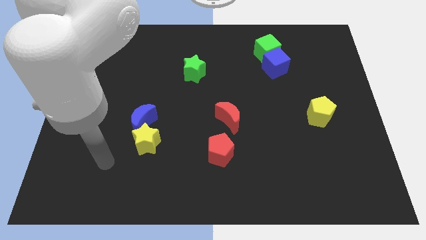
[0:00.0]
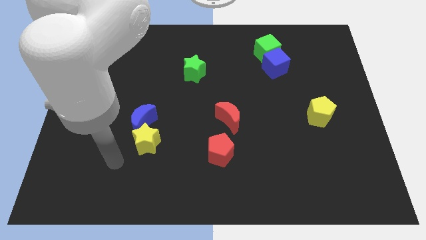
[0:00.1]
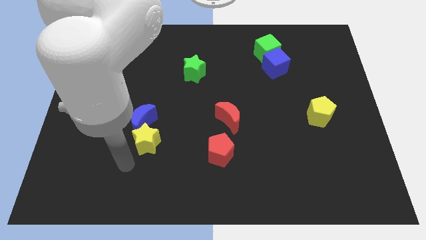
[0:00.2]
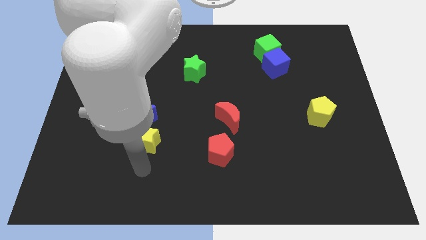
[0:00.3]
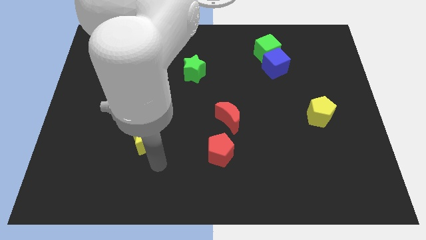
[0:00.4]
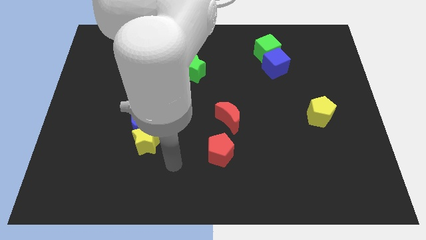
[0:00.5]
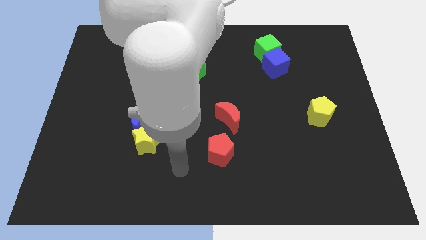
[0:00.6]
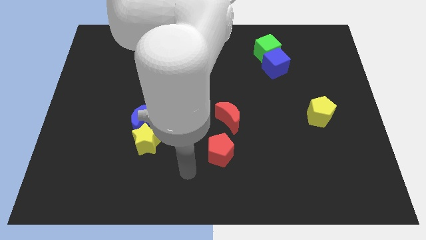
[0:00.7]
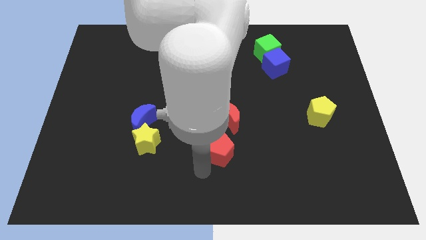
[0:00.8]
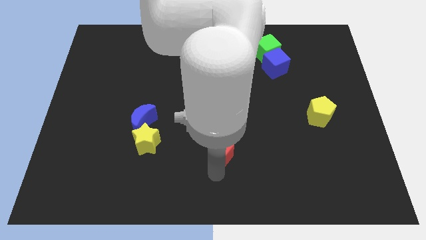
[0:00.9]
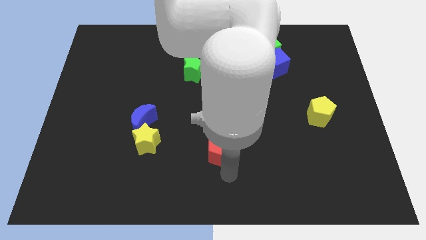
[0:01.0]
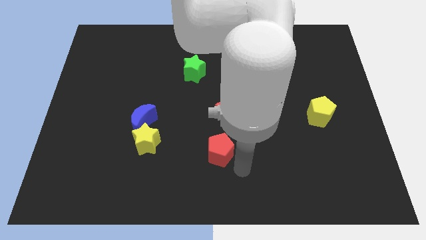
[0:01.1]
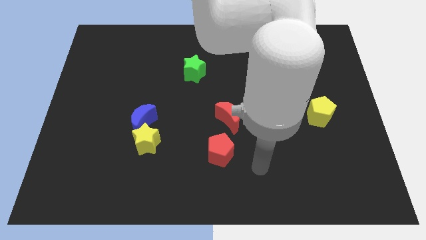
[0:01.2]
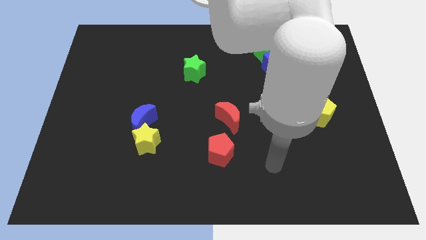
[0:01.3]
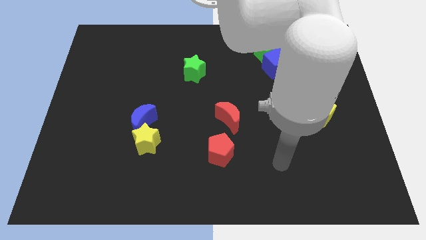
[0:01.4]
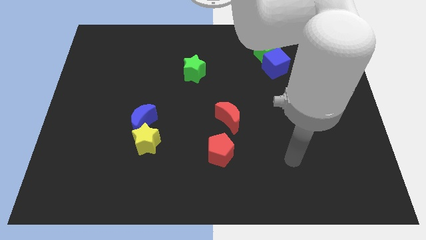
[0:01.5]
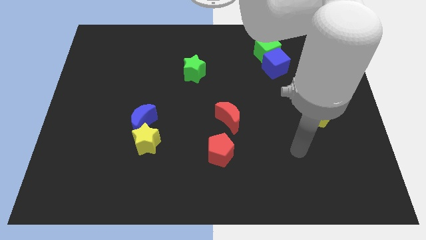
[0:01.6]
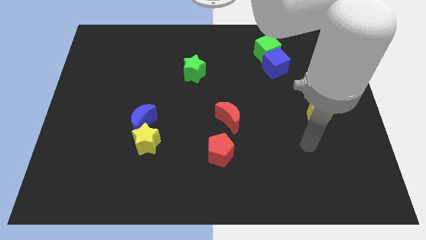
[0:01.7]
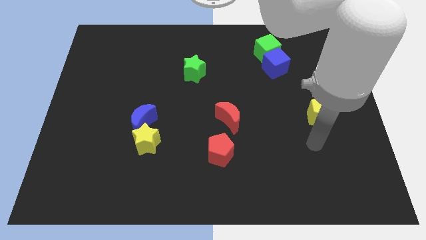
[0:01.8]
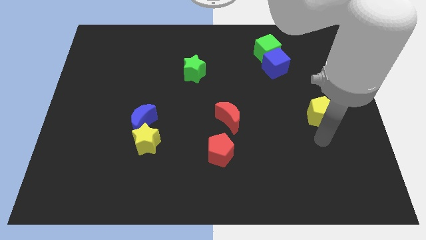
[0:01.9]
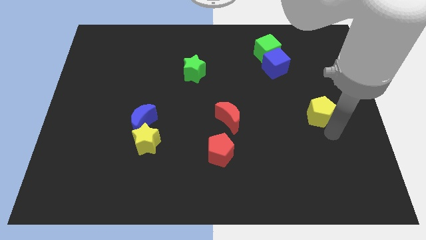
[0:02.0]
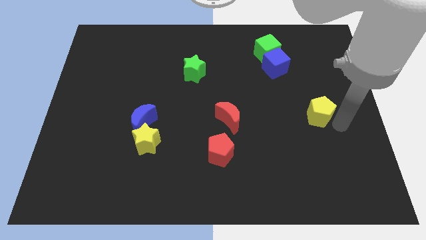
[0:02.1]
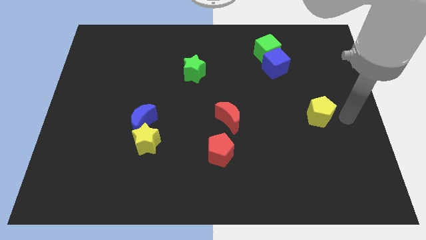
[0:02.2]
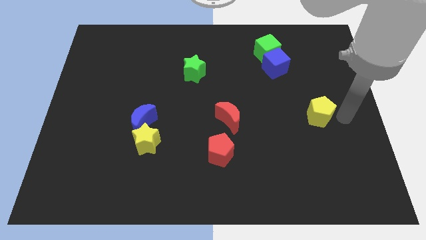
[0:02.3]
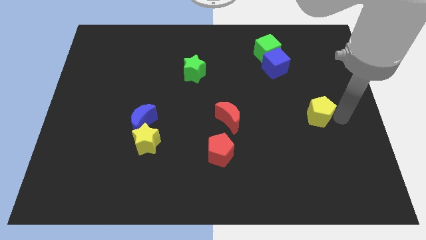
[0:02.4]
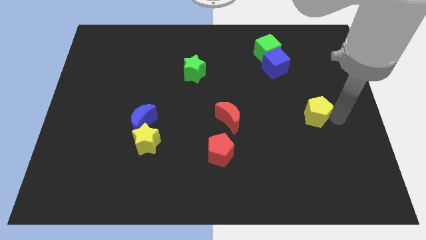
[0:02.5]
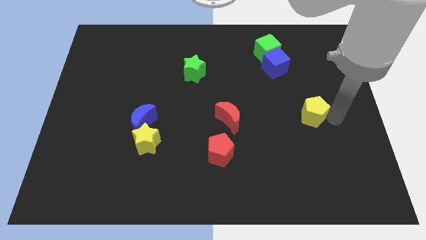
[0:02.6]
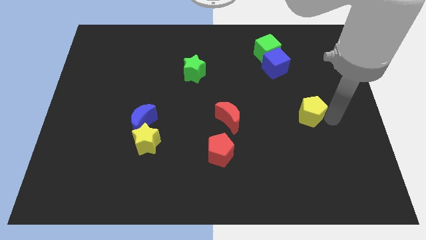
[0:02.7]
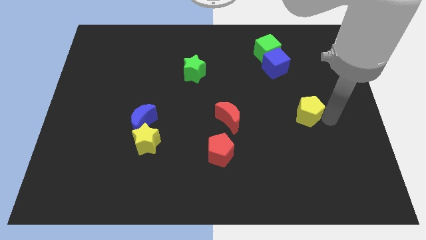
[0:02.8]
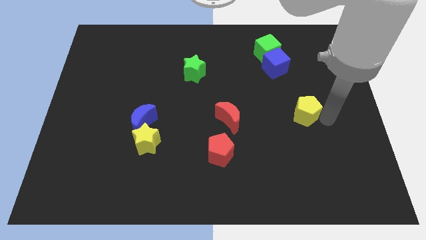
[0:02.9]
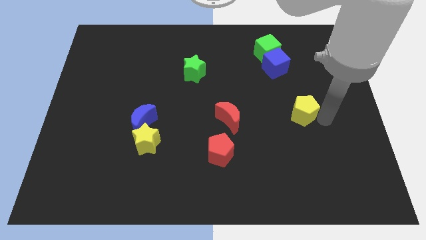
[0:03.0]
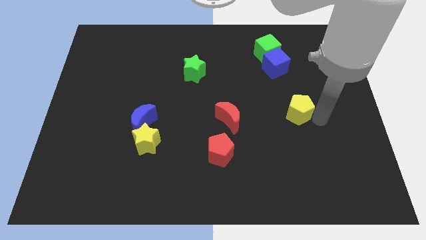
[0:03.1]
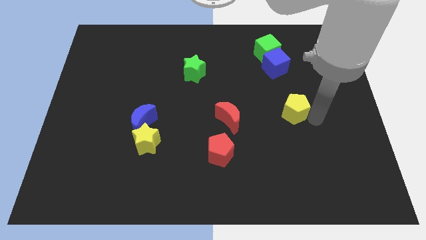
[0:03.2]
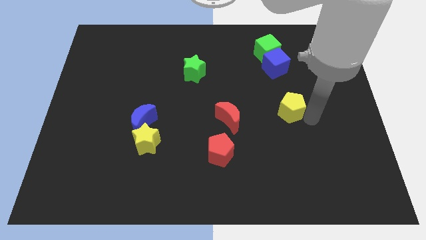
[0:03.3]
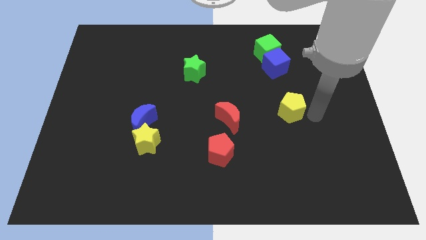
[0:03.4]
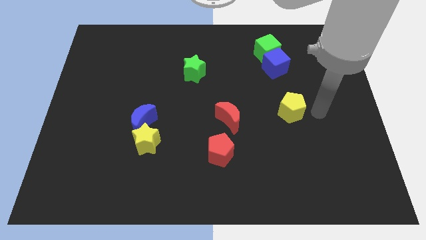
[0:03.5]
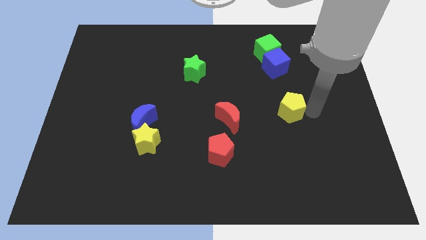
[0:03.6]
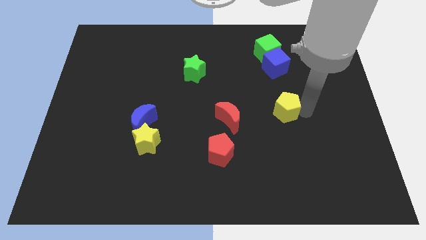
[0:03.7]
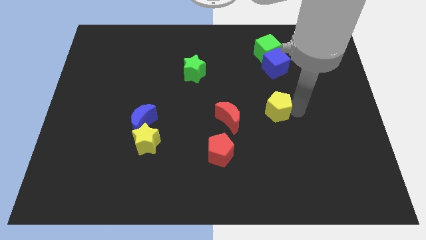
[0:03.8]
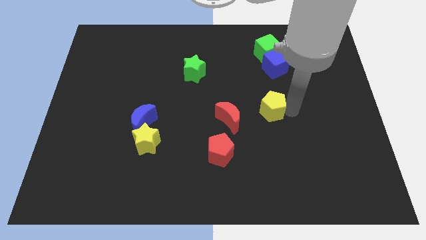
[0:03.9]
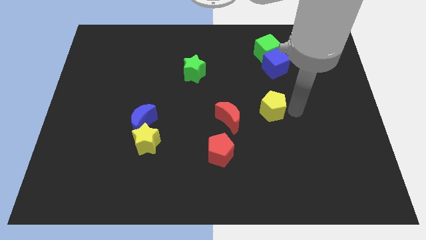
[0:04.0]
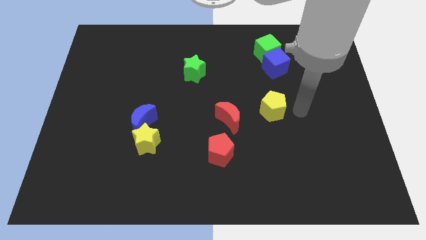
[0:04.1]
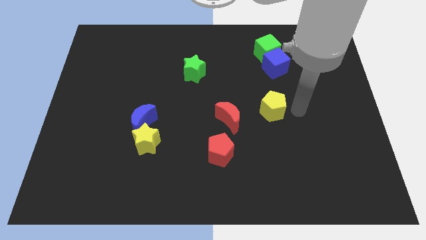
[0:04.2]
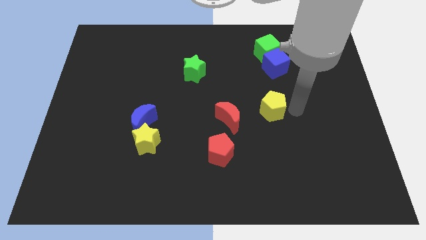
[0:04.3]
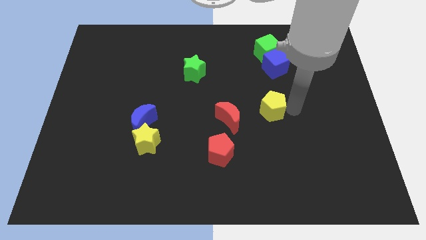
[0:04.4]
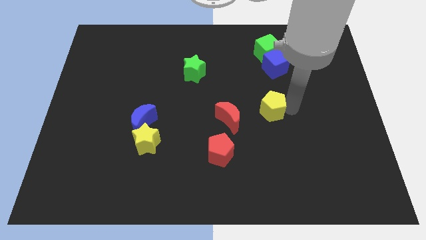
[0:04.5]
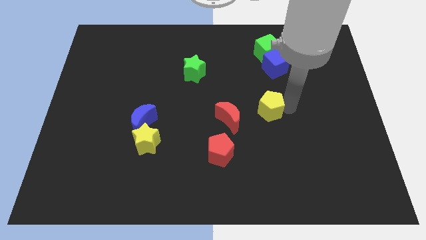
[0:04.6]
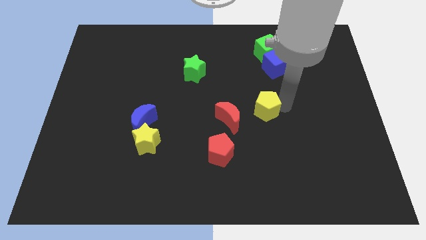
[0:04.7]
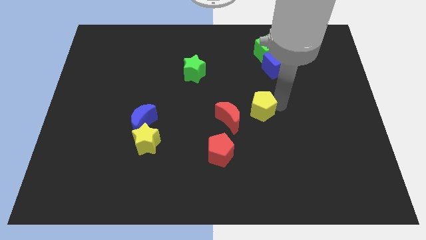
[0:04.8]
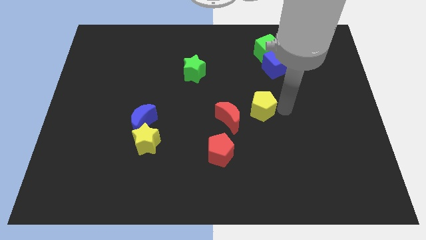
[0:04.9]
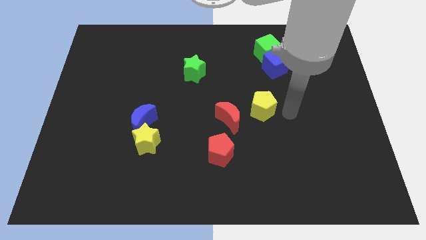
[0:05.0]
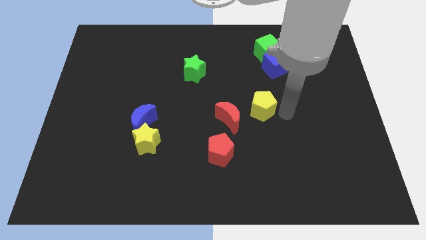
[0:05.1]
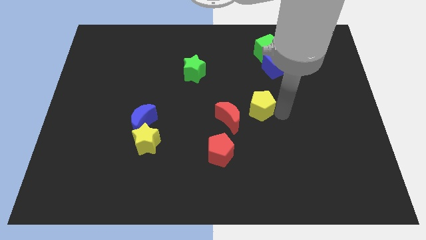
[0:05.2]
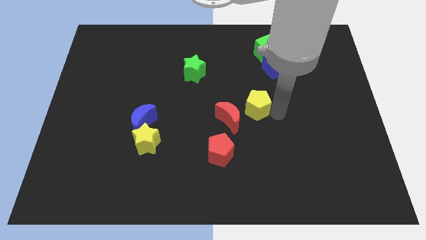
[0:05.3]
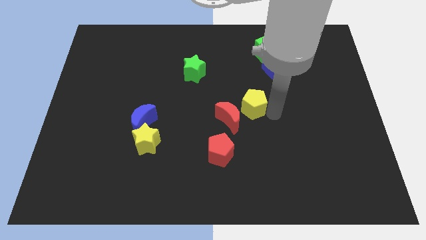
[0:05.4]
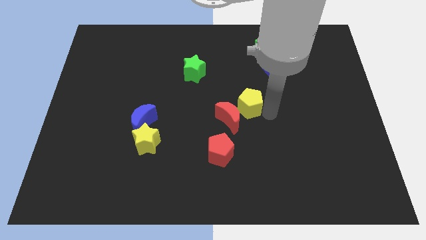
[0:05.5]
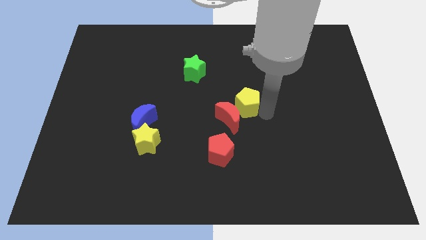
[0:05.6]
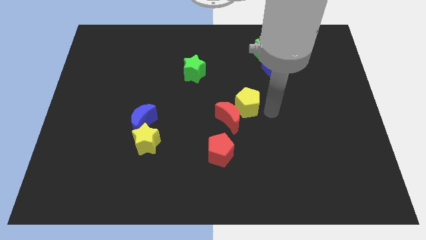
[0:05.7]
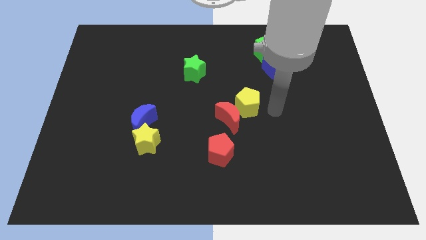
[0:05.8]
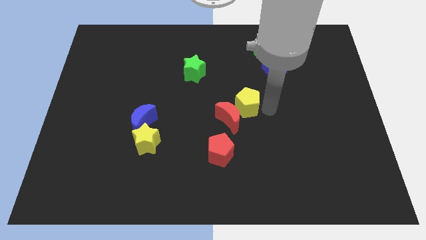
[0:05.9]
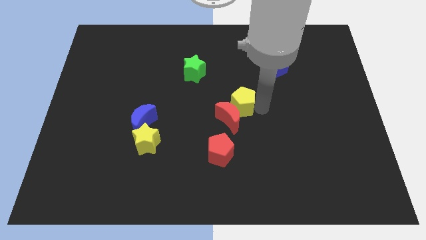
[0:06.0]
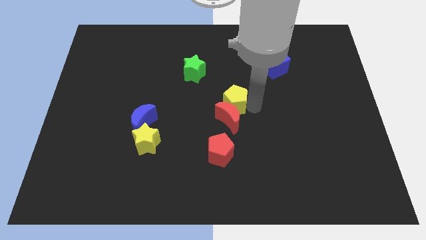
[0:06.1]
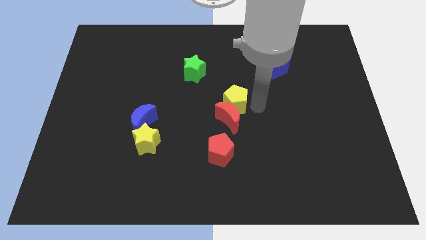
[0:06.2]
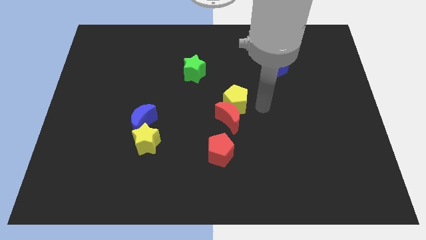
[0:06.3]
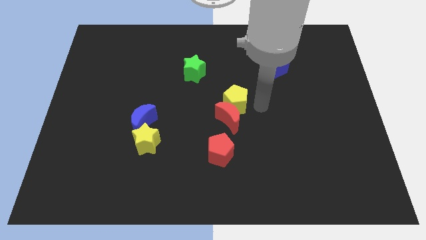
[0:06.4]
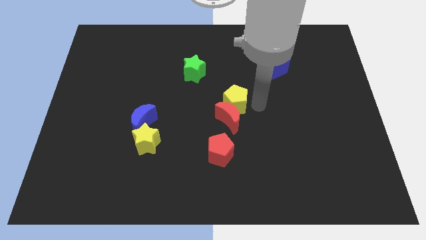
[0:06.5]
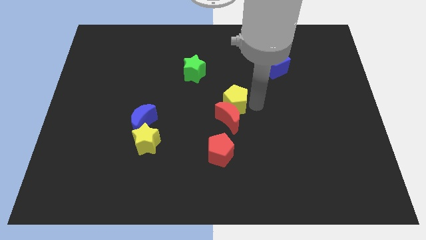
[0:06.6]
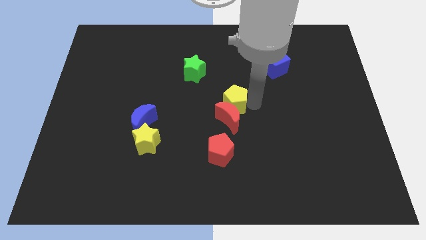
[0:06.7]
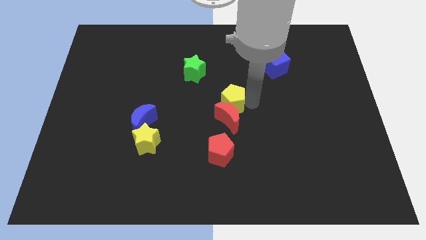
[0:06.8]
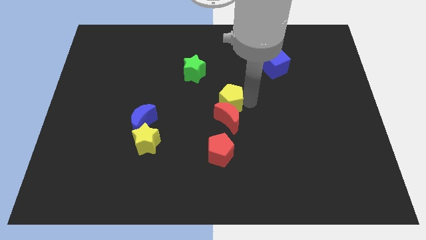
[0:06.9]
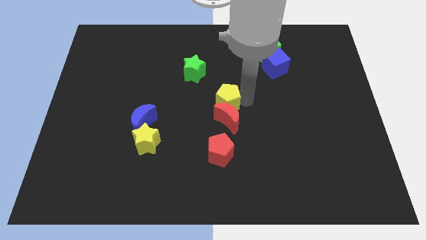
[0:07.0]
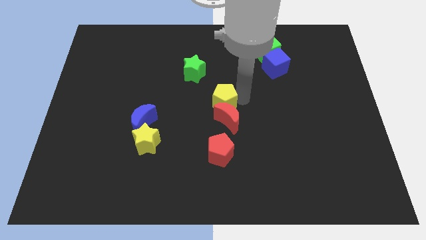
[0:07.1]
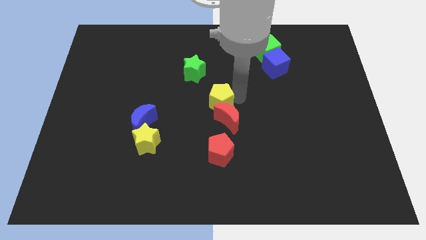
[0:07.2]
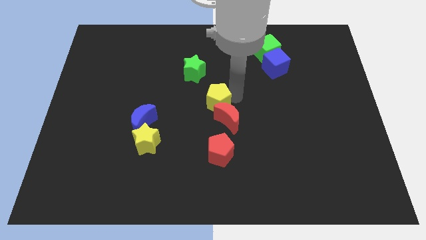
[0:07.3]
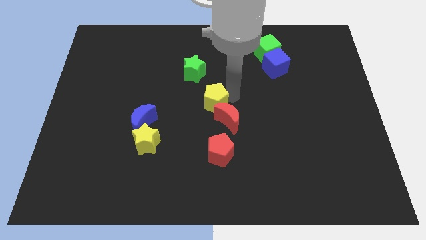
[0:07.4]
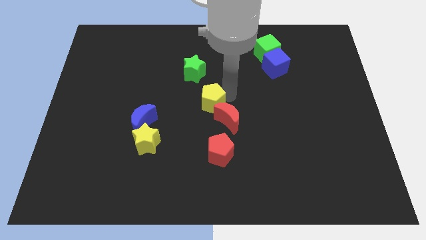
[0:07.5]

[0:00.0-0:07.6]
move the yellow pentagon to the bottom of the green star
